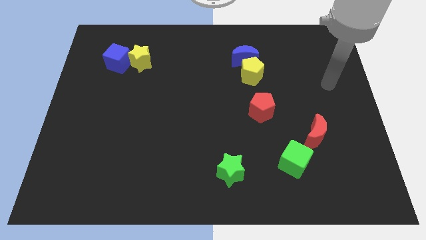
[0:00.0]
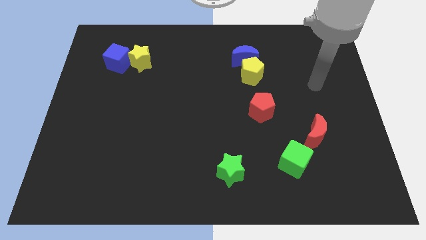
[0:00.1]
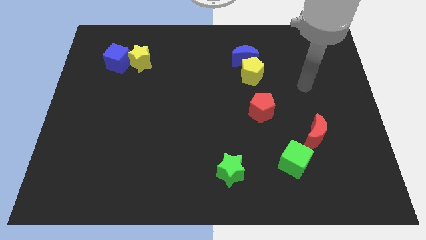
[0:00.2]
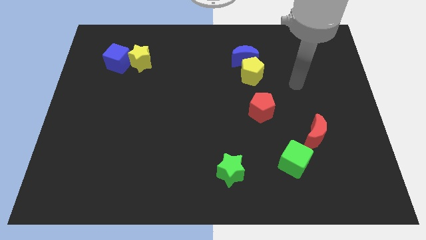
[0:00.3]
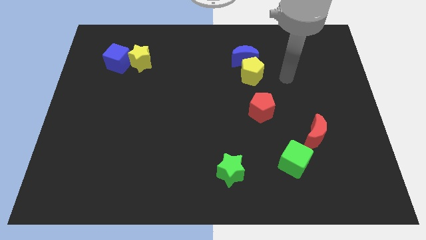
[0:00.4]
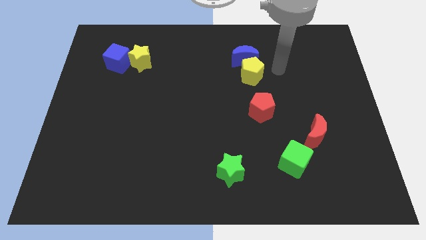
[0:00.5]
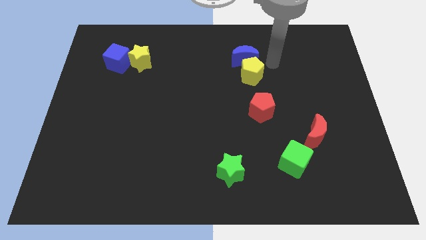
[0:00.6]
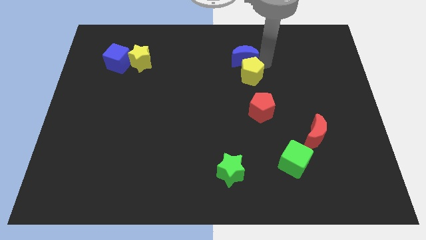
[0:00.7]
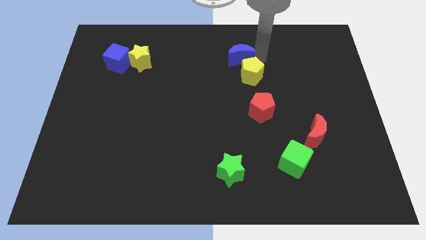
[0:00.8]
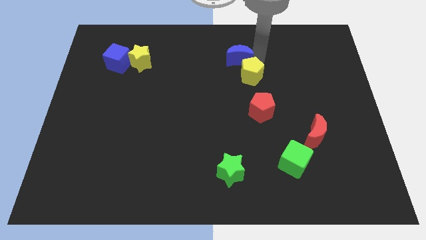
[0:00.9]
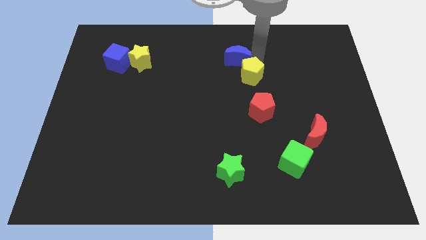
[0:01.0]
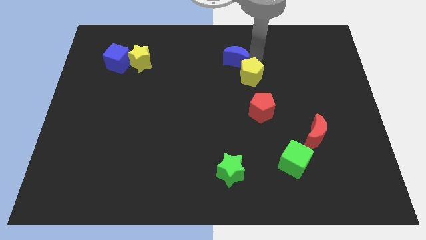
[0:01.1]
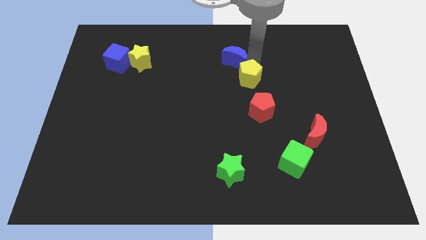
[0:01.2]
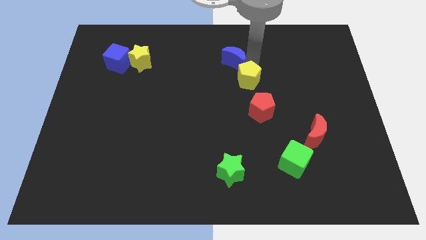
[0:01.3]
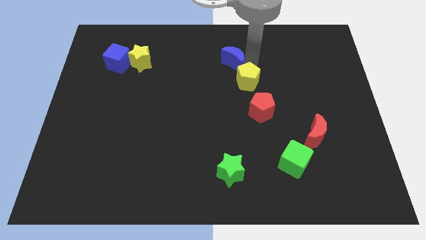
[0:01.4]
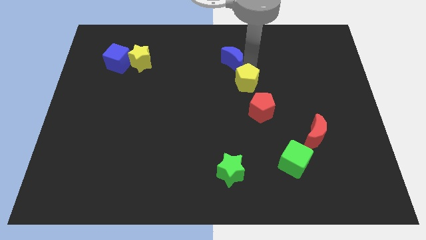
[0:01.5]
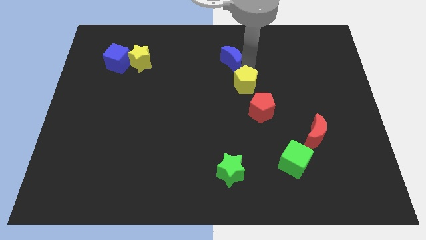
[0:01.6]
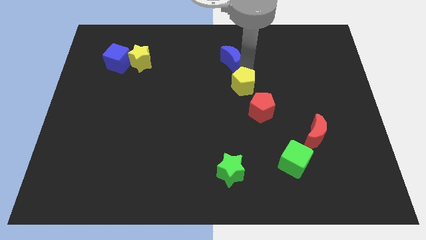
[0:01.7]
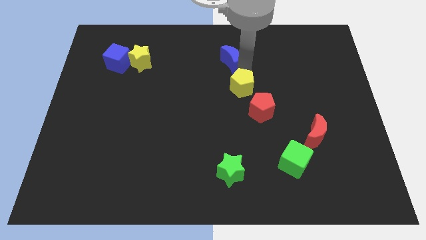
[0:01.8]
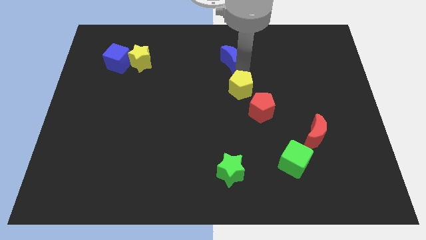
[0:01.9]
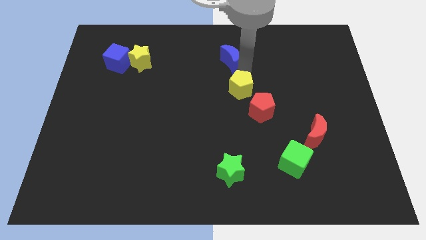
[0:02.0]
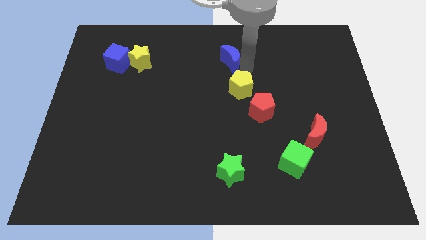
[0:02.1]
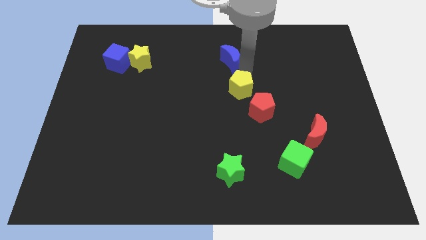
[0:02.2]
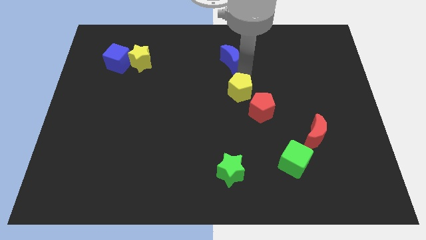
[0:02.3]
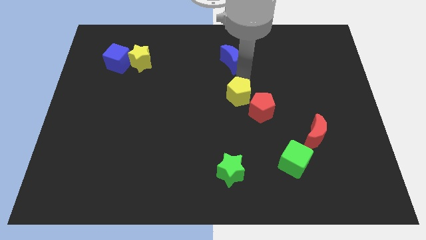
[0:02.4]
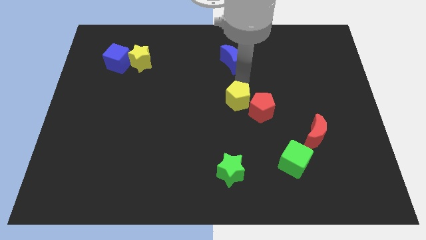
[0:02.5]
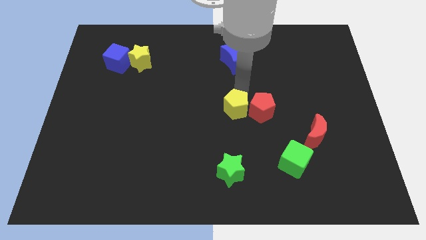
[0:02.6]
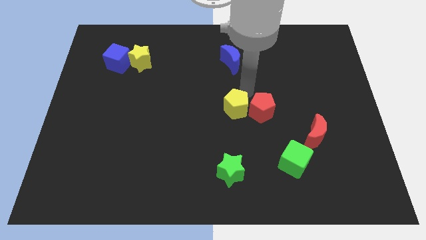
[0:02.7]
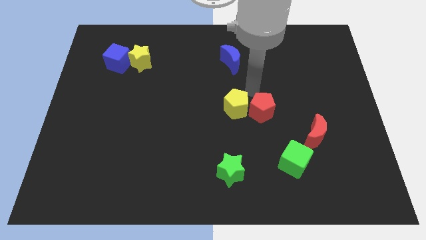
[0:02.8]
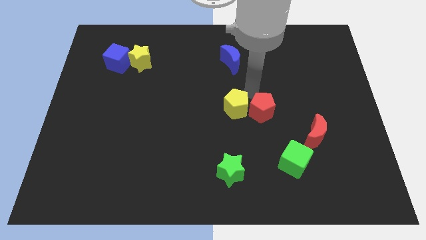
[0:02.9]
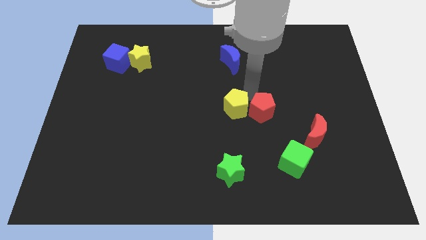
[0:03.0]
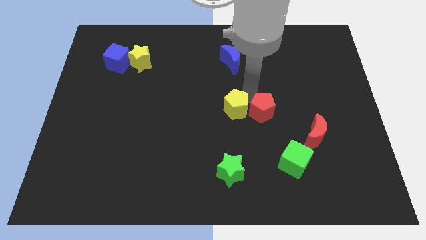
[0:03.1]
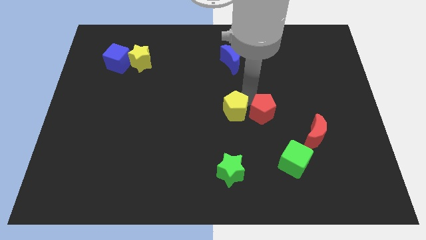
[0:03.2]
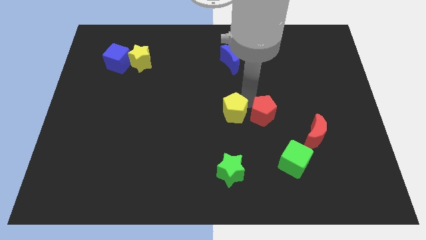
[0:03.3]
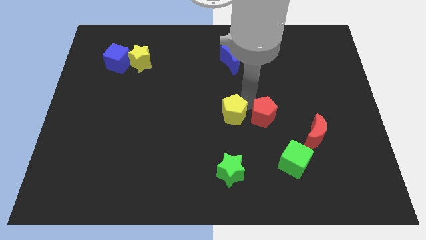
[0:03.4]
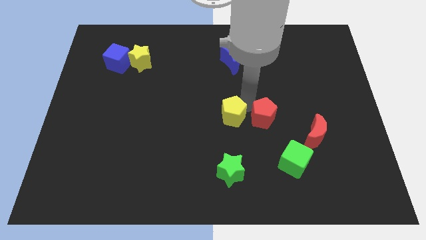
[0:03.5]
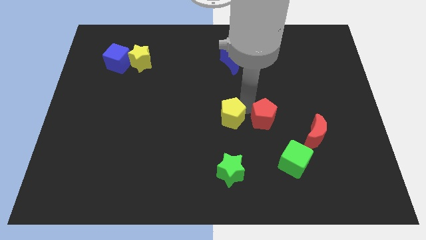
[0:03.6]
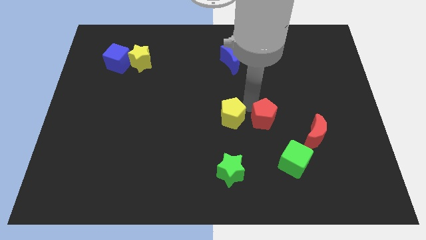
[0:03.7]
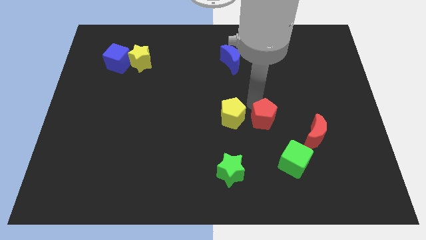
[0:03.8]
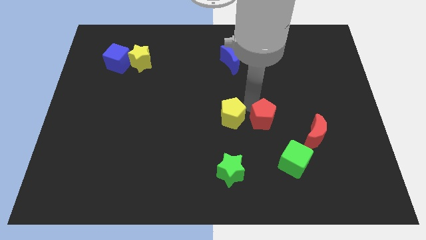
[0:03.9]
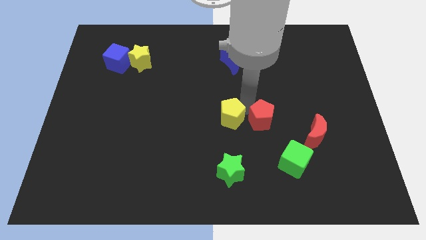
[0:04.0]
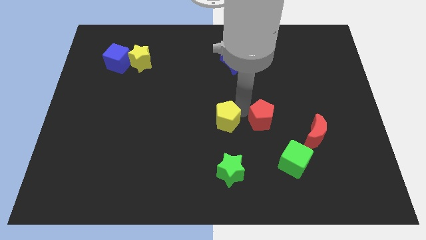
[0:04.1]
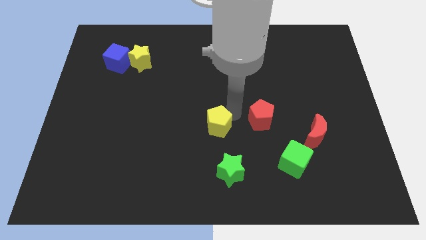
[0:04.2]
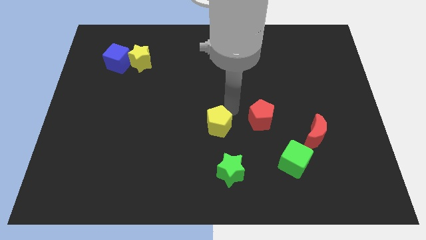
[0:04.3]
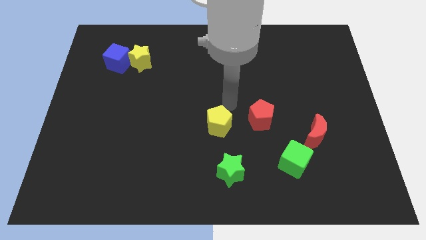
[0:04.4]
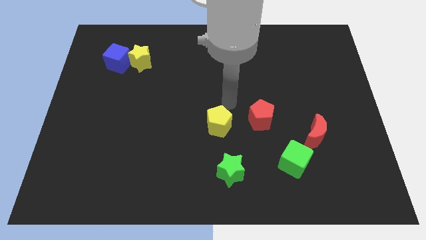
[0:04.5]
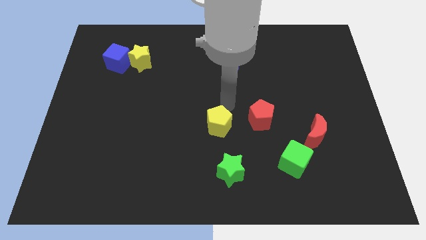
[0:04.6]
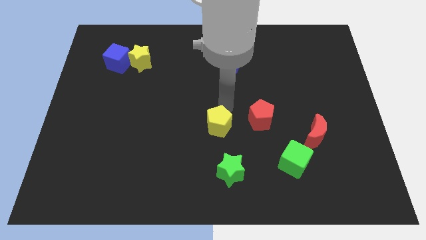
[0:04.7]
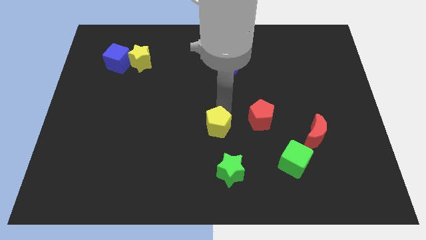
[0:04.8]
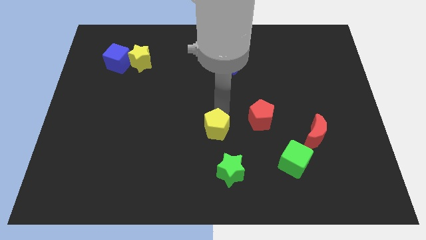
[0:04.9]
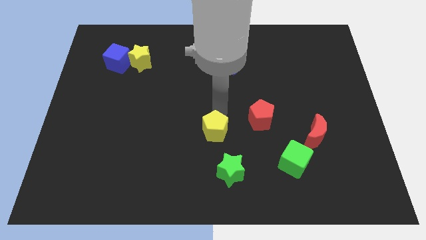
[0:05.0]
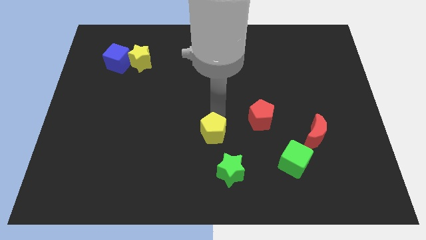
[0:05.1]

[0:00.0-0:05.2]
move the yellow pentagon to the top left of the green star

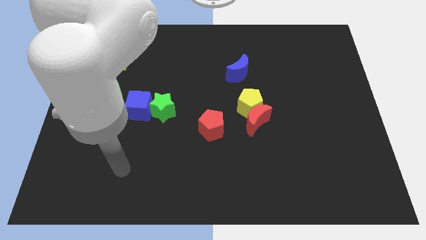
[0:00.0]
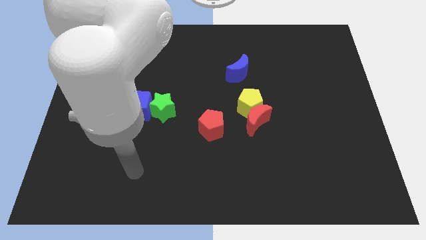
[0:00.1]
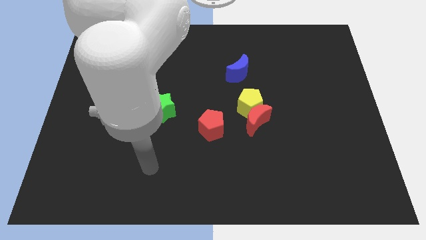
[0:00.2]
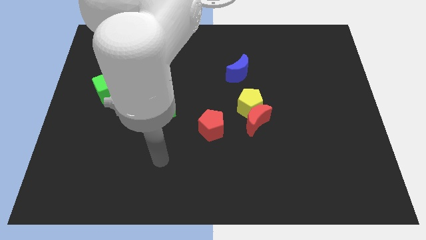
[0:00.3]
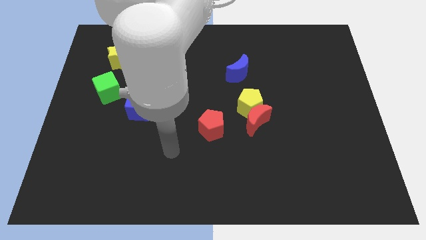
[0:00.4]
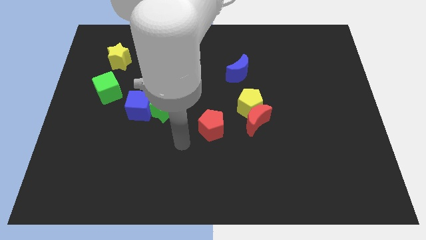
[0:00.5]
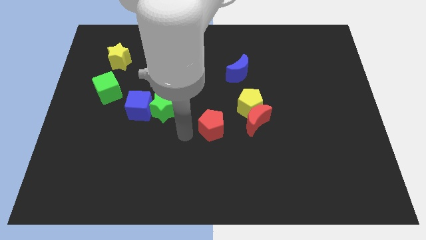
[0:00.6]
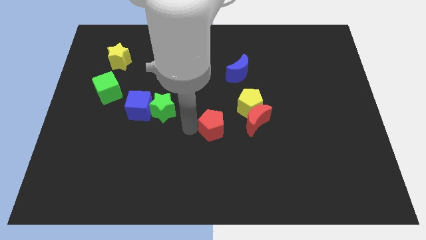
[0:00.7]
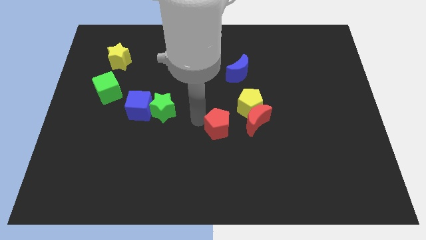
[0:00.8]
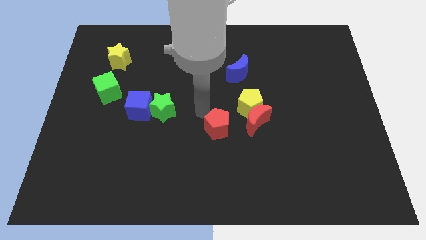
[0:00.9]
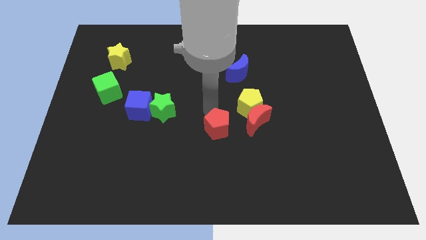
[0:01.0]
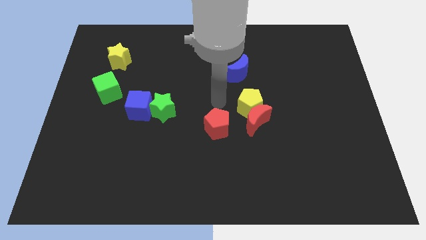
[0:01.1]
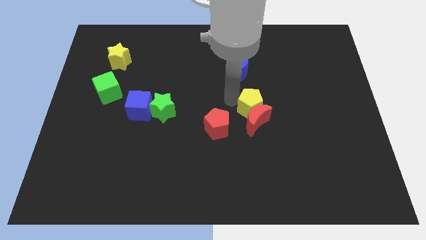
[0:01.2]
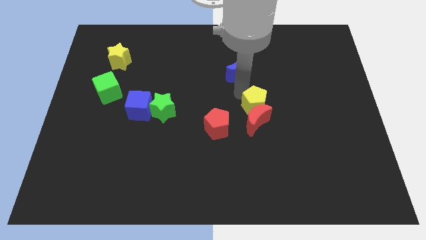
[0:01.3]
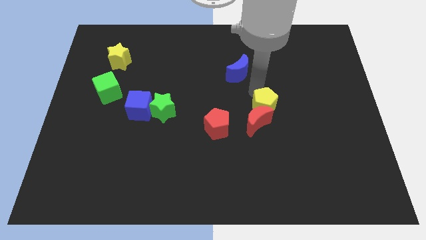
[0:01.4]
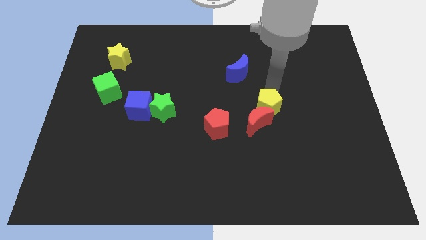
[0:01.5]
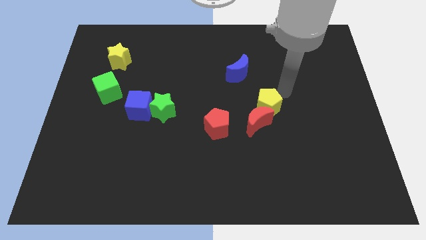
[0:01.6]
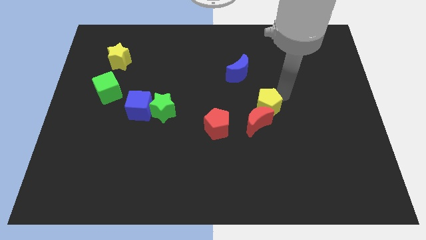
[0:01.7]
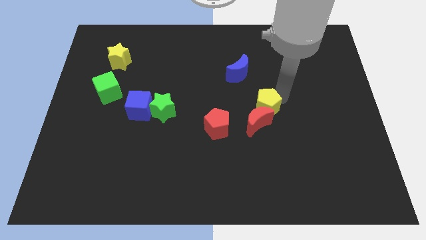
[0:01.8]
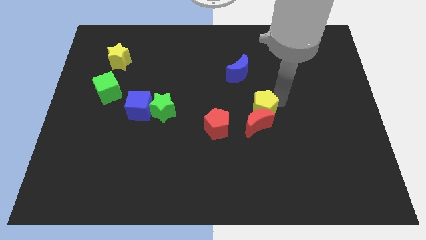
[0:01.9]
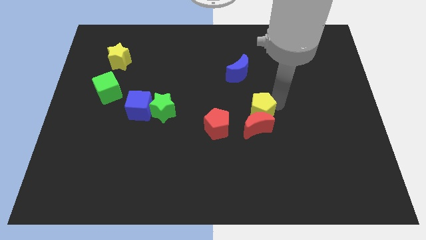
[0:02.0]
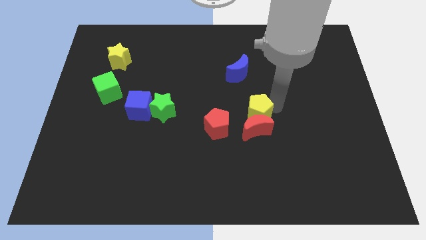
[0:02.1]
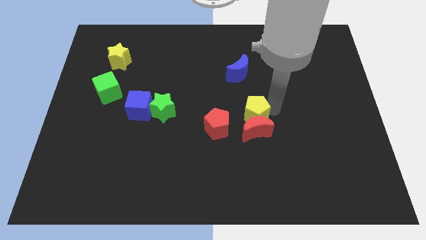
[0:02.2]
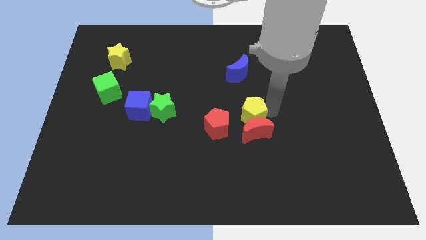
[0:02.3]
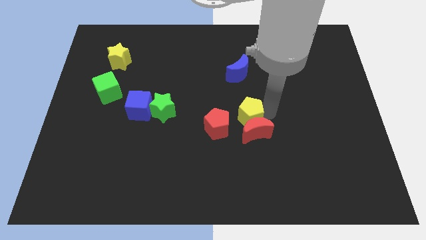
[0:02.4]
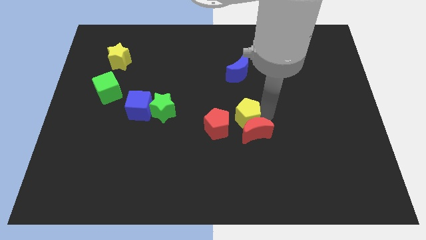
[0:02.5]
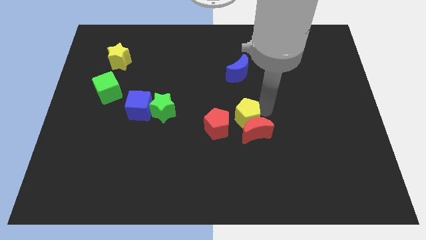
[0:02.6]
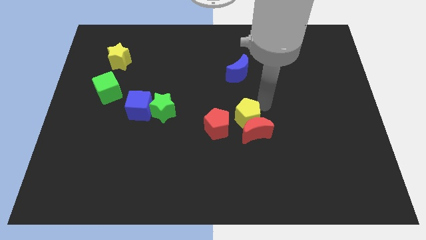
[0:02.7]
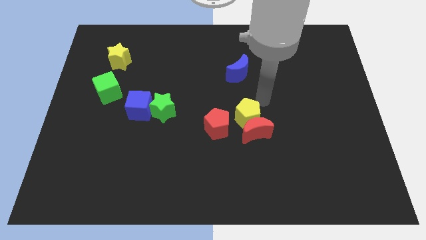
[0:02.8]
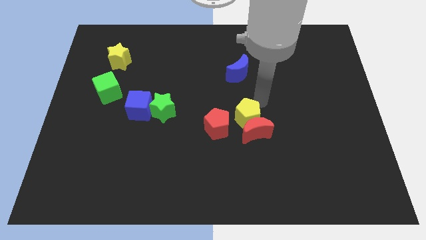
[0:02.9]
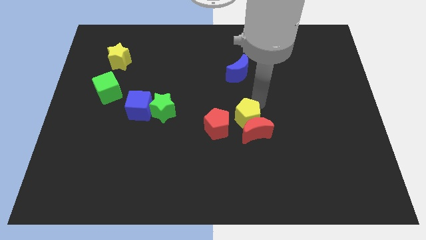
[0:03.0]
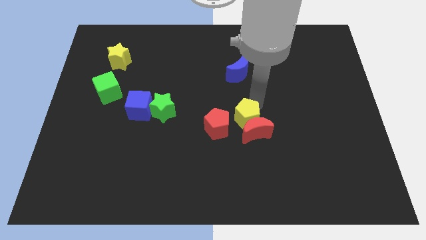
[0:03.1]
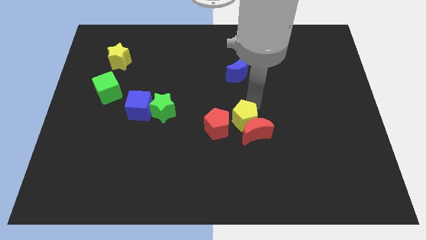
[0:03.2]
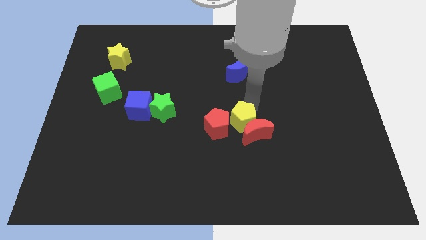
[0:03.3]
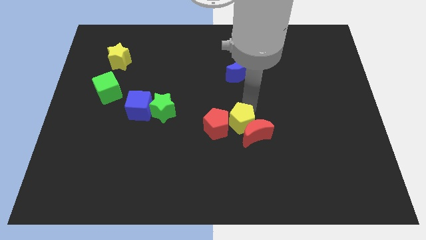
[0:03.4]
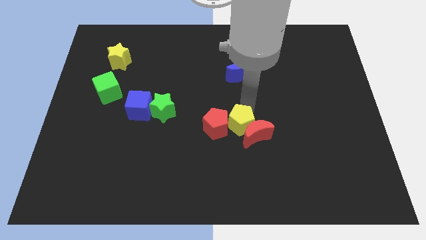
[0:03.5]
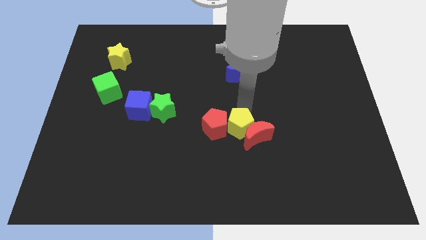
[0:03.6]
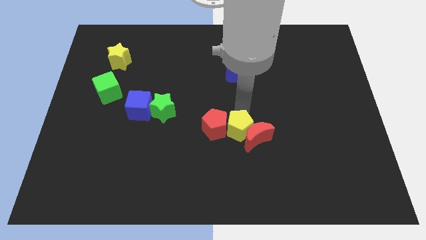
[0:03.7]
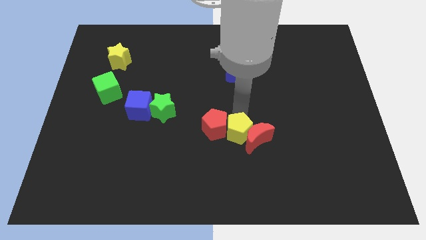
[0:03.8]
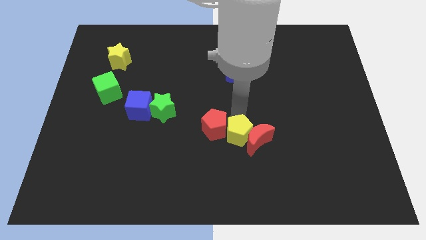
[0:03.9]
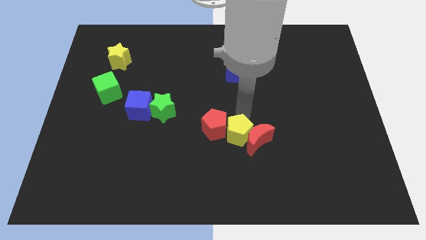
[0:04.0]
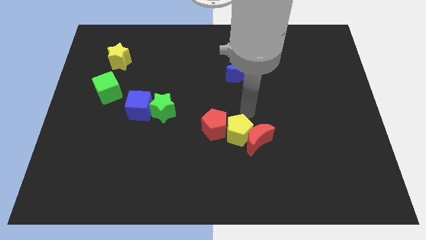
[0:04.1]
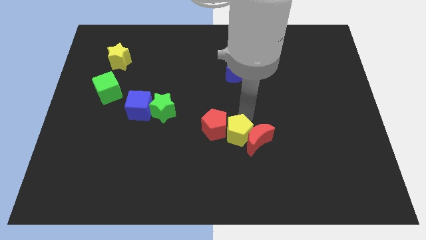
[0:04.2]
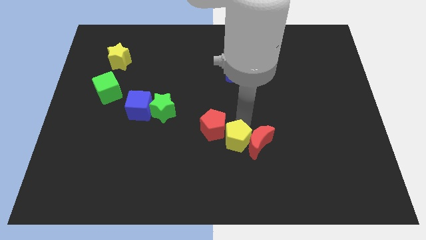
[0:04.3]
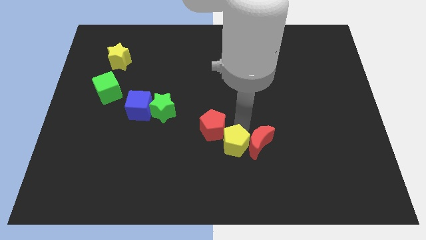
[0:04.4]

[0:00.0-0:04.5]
push the yellow pentagon to the bottom of the red pentagon
